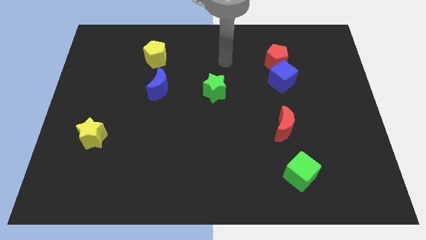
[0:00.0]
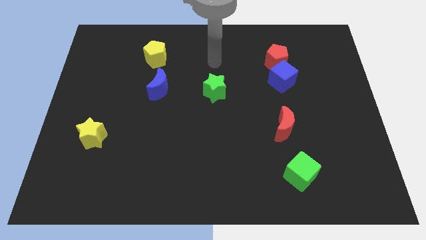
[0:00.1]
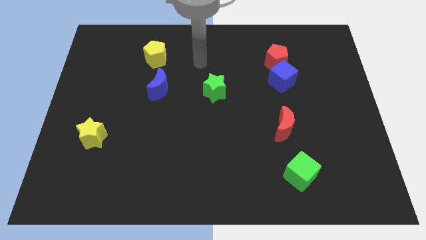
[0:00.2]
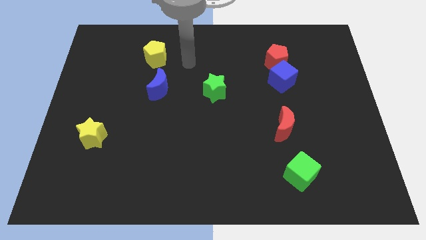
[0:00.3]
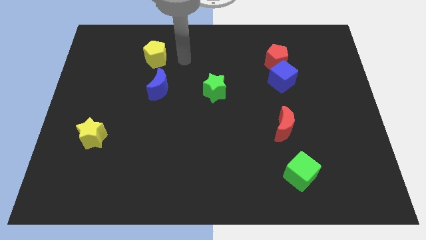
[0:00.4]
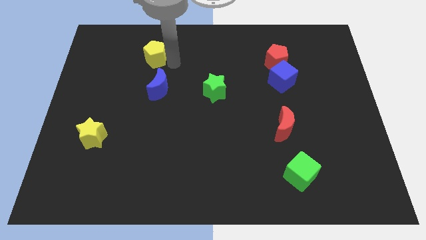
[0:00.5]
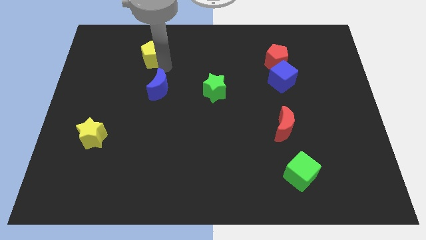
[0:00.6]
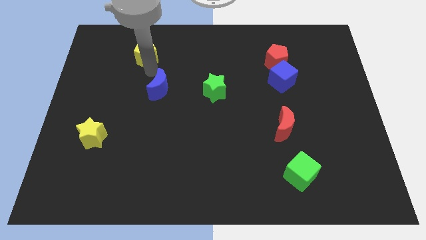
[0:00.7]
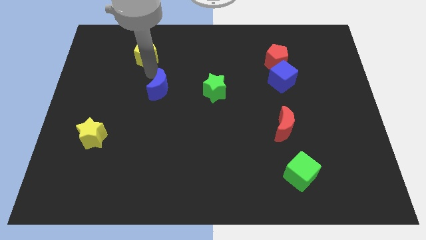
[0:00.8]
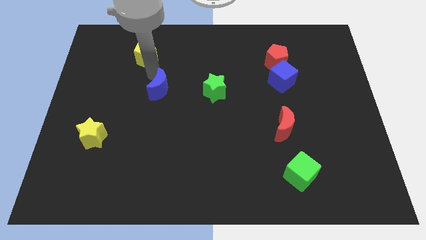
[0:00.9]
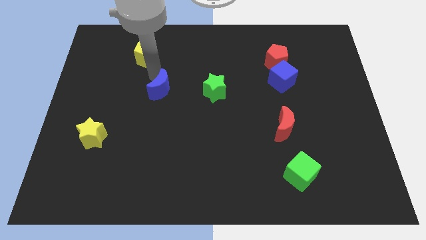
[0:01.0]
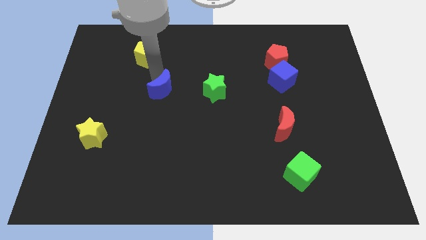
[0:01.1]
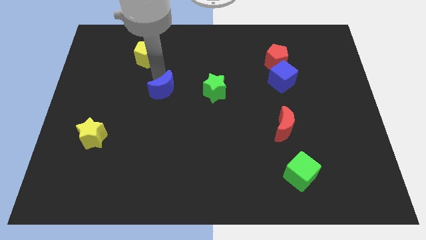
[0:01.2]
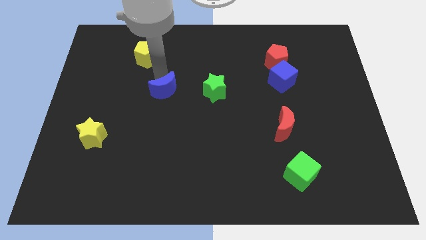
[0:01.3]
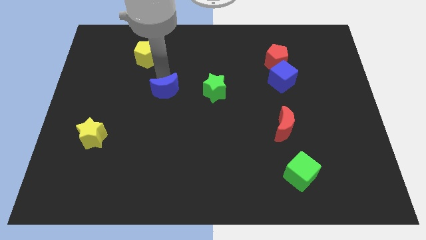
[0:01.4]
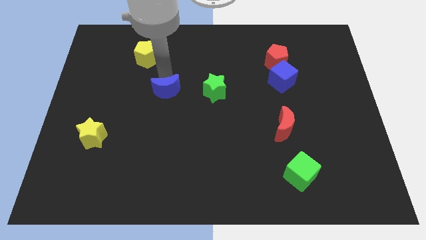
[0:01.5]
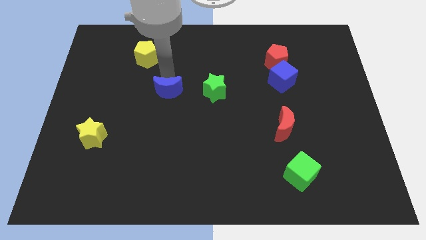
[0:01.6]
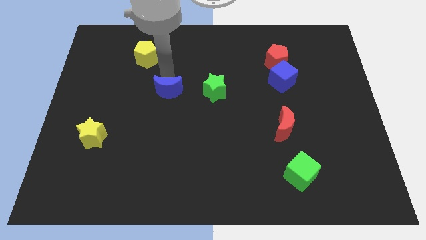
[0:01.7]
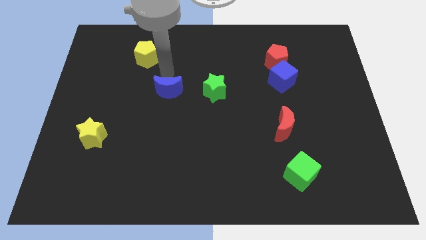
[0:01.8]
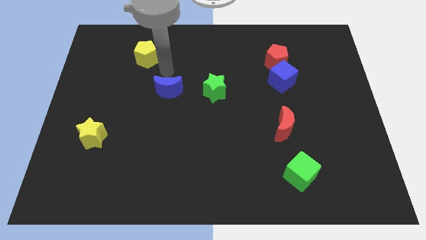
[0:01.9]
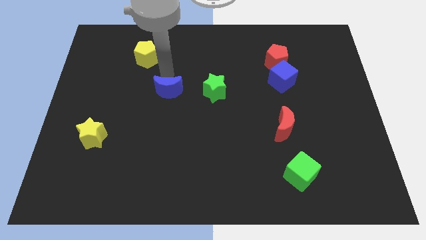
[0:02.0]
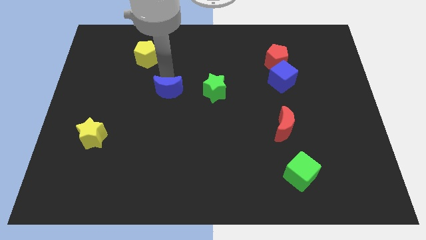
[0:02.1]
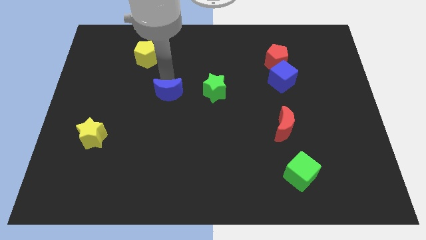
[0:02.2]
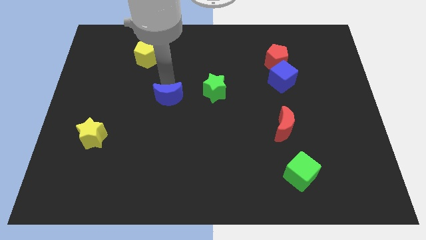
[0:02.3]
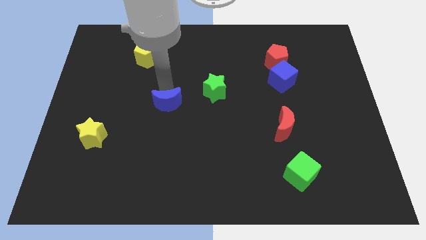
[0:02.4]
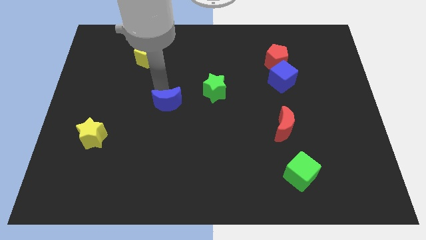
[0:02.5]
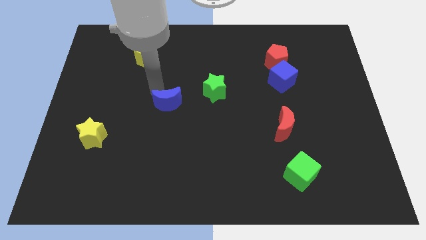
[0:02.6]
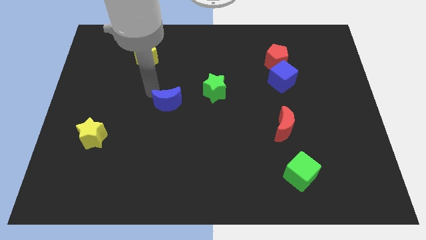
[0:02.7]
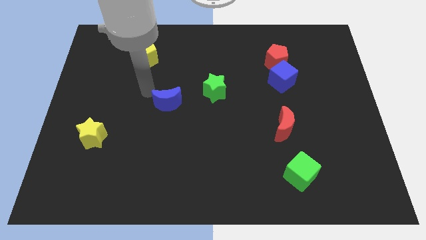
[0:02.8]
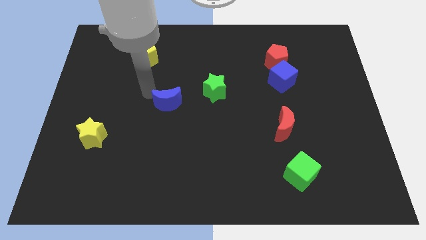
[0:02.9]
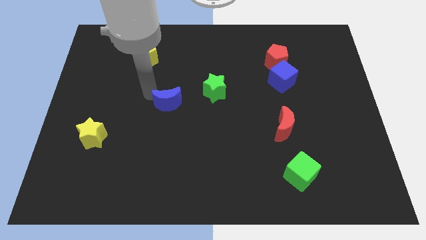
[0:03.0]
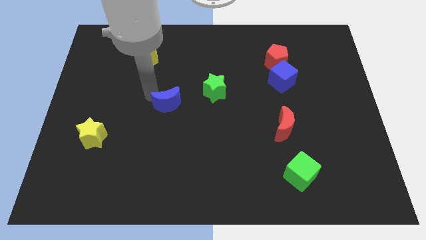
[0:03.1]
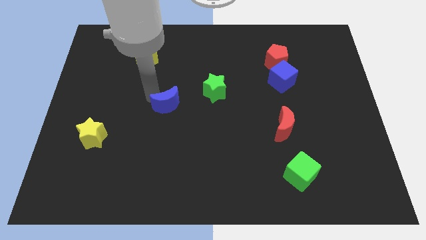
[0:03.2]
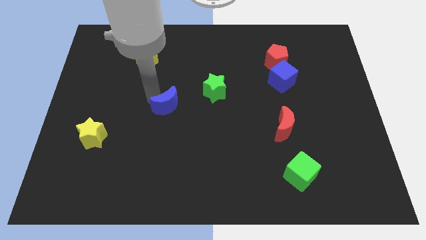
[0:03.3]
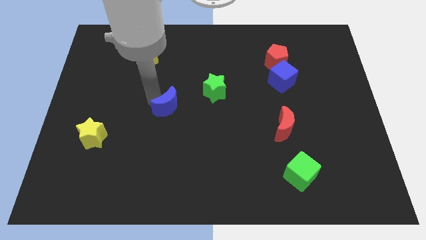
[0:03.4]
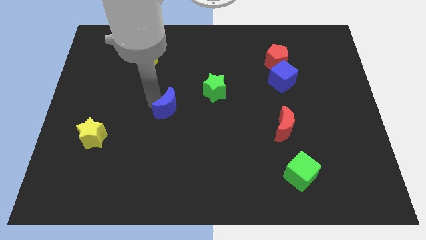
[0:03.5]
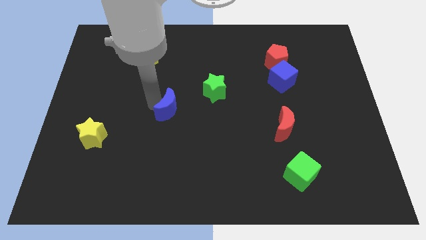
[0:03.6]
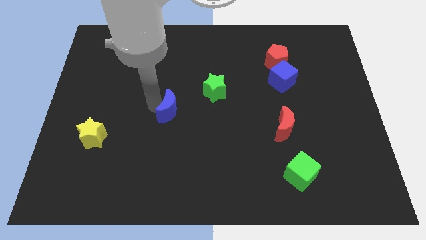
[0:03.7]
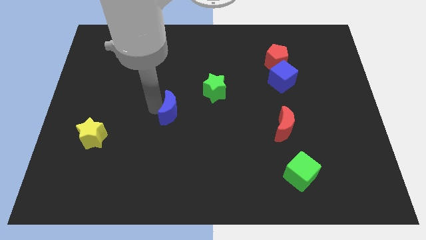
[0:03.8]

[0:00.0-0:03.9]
move the blue moon down and then to the right slightly

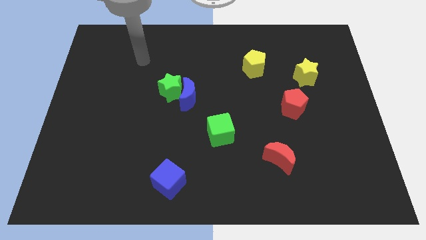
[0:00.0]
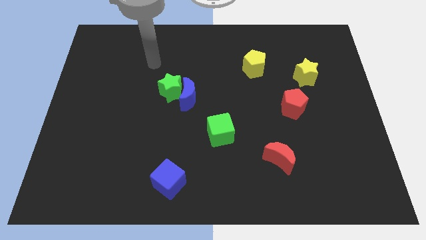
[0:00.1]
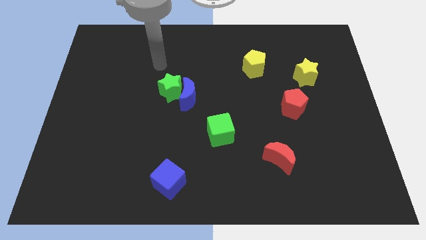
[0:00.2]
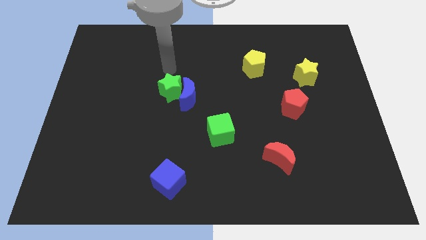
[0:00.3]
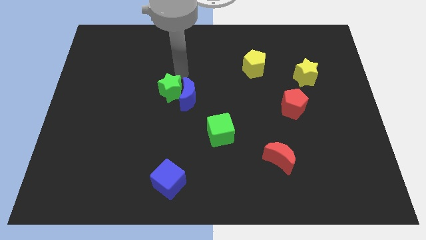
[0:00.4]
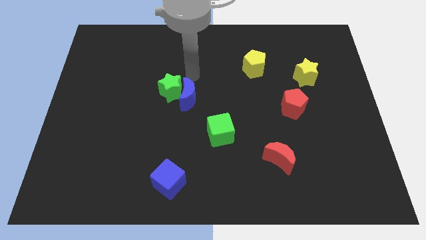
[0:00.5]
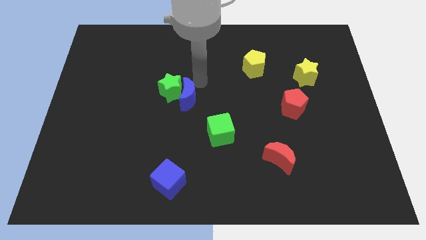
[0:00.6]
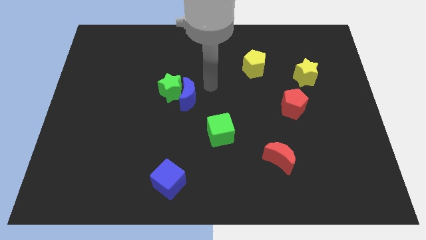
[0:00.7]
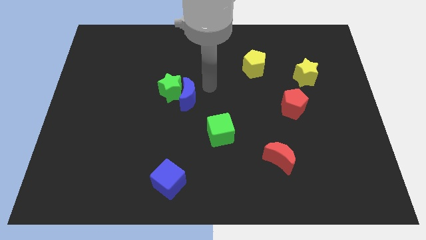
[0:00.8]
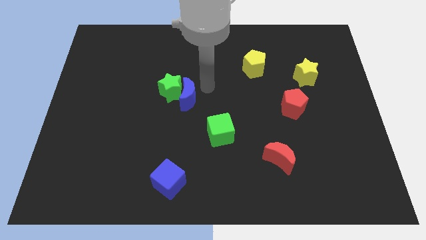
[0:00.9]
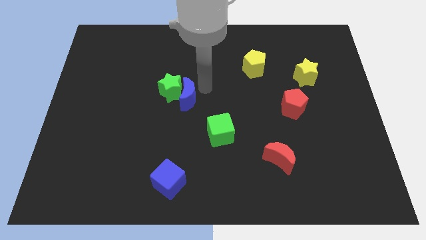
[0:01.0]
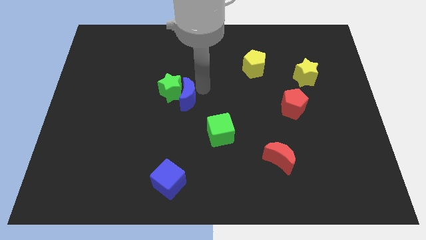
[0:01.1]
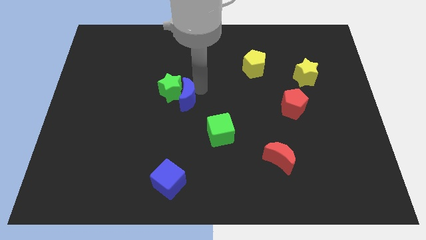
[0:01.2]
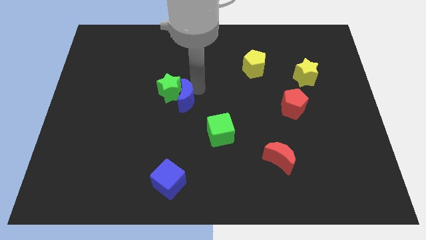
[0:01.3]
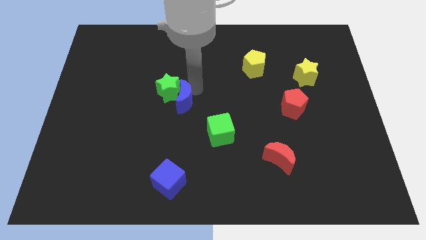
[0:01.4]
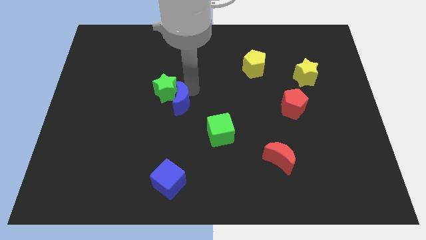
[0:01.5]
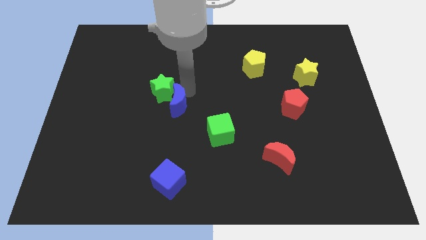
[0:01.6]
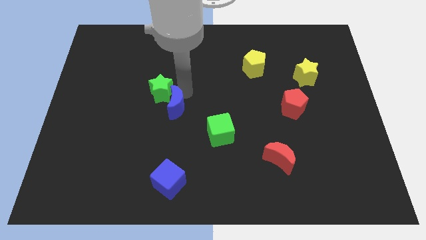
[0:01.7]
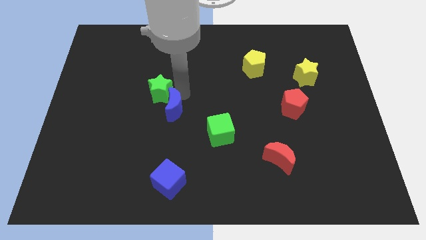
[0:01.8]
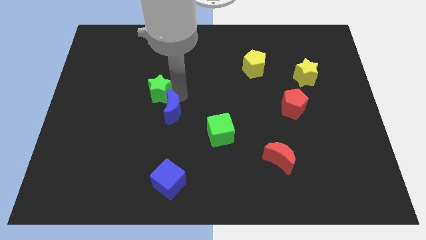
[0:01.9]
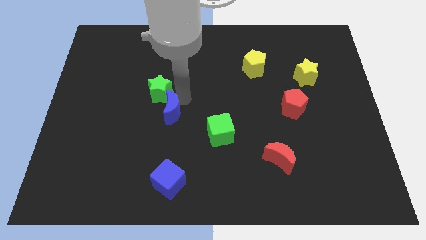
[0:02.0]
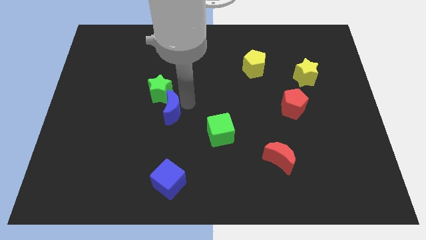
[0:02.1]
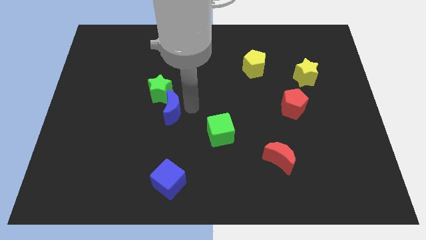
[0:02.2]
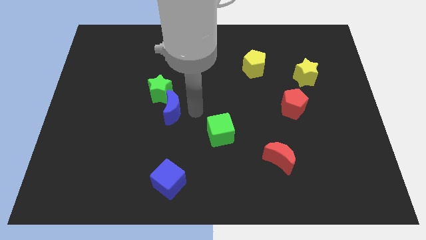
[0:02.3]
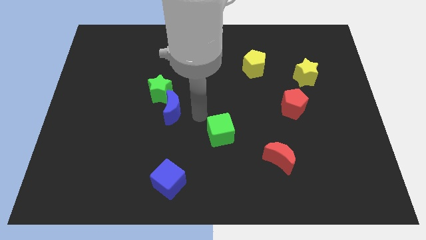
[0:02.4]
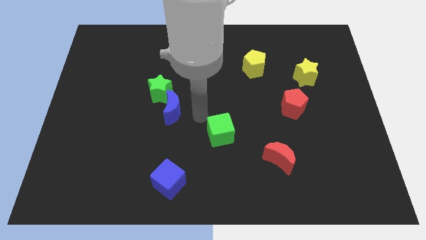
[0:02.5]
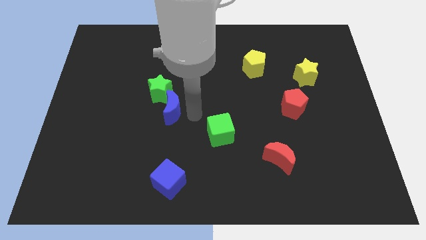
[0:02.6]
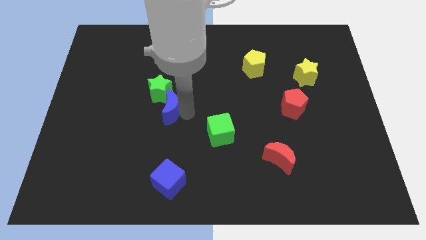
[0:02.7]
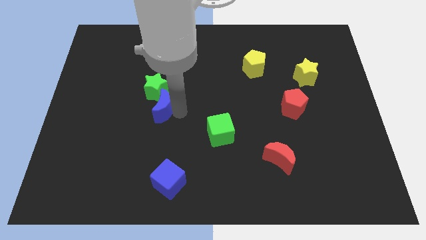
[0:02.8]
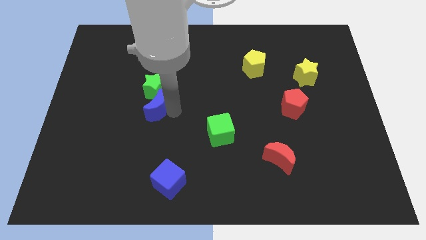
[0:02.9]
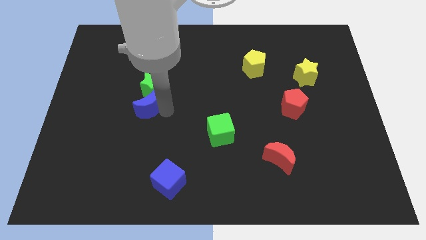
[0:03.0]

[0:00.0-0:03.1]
slide the blue moon left a little

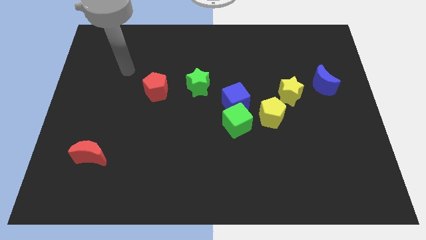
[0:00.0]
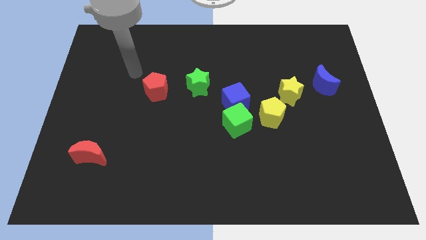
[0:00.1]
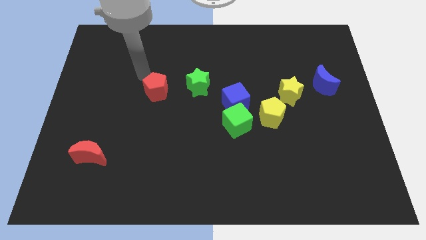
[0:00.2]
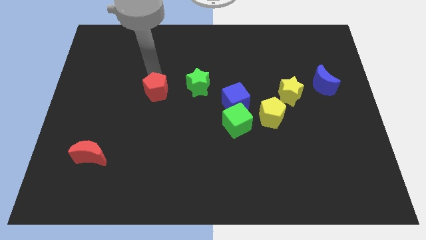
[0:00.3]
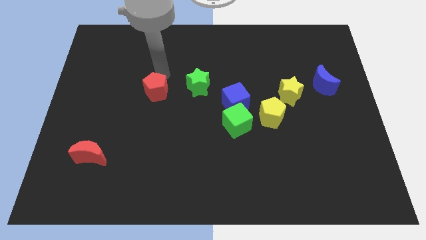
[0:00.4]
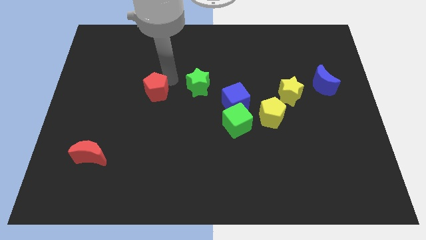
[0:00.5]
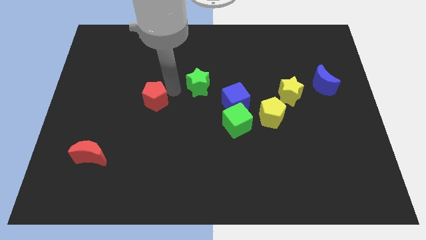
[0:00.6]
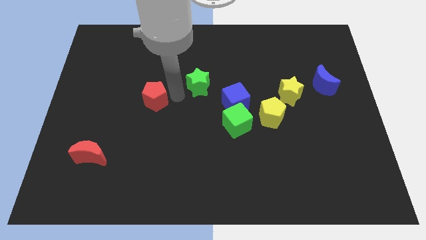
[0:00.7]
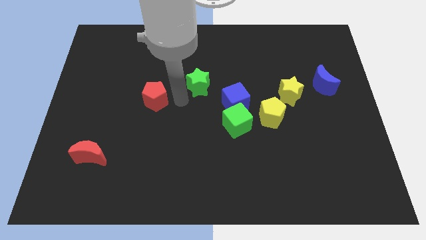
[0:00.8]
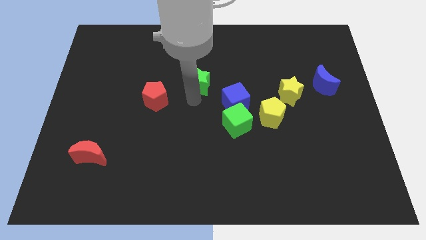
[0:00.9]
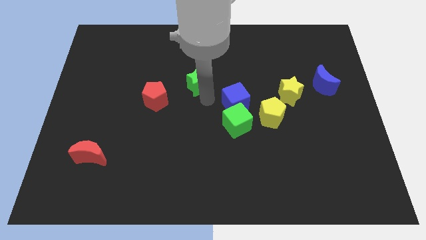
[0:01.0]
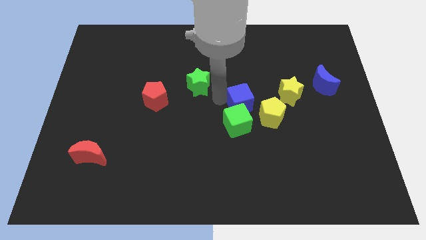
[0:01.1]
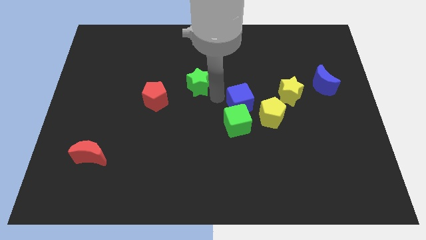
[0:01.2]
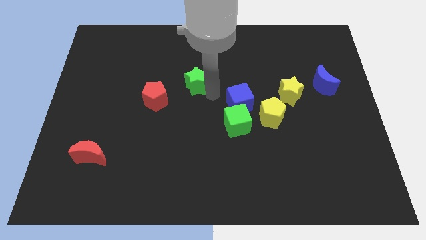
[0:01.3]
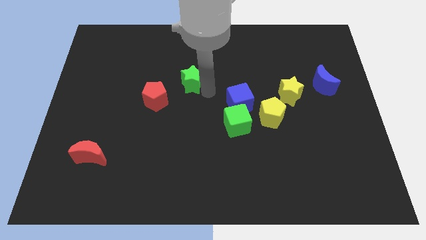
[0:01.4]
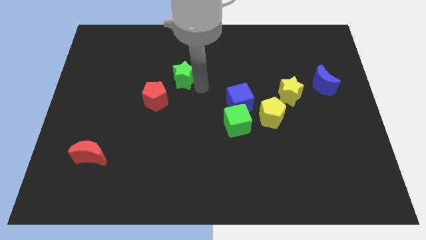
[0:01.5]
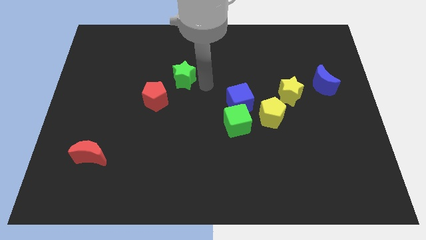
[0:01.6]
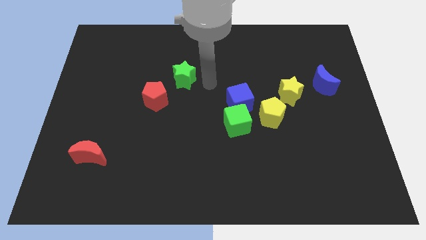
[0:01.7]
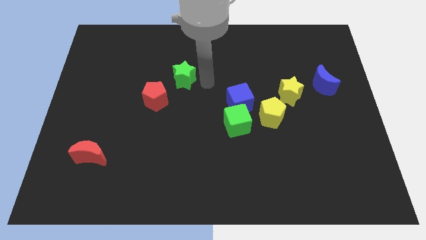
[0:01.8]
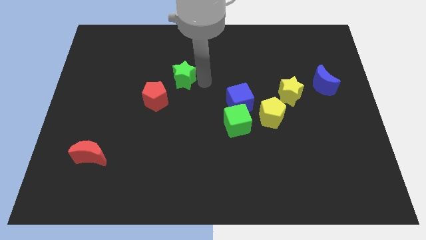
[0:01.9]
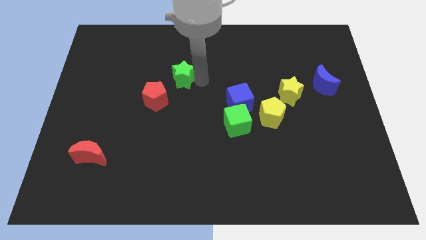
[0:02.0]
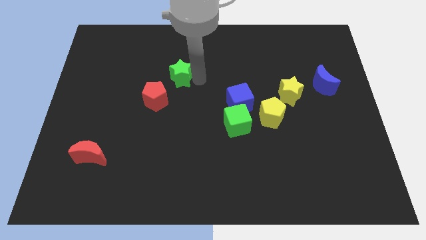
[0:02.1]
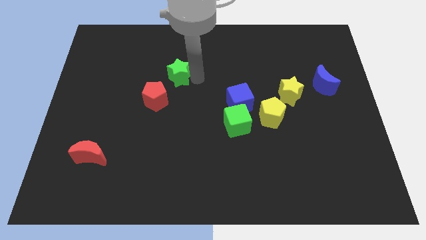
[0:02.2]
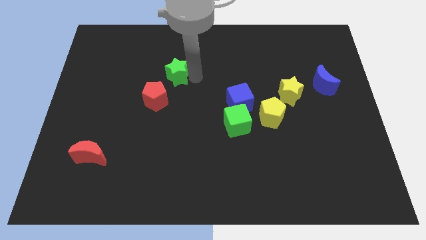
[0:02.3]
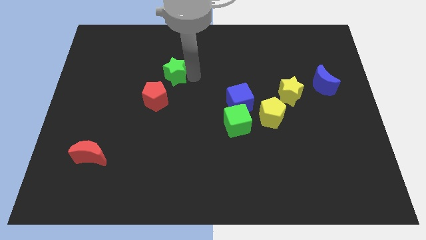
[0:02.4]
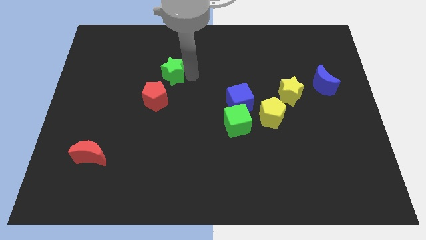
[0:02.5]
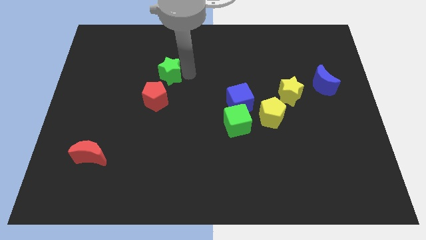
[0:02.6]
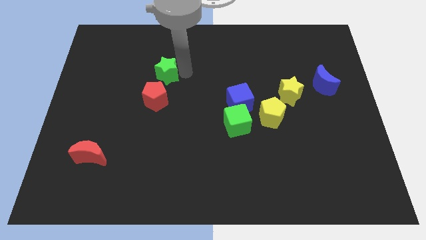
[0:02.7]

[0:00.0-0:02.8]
move the green star somewhat left
